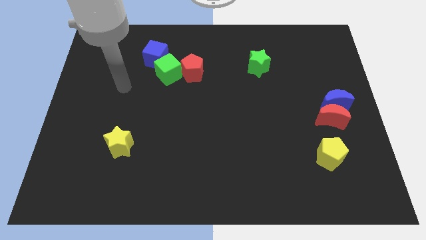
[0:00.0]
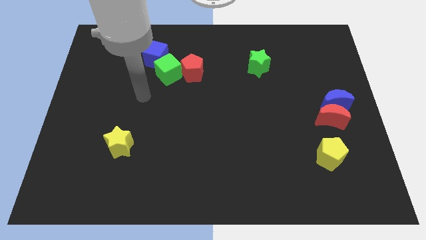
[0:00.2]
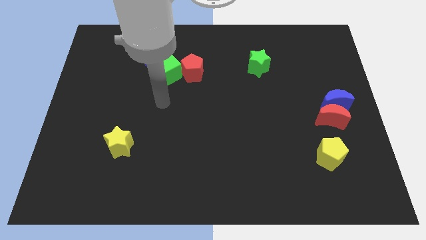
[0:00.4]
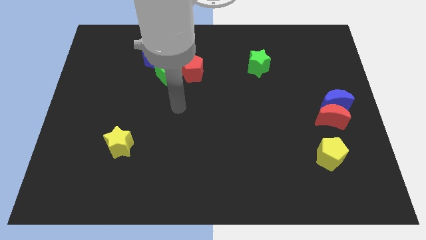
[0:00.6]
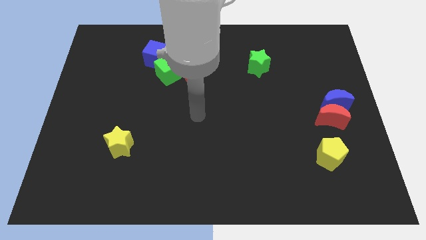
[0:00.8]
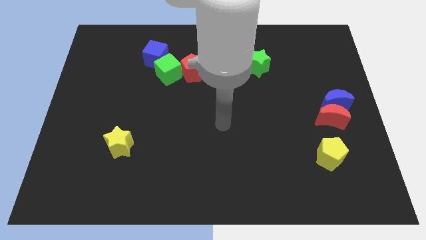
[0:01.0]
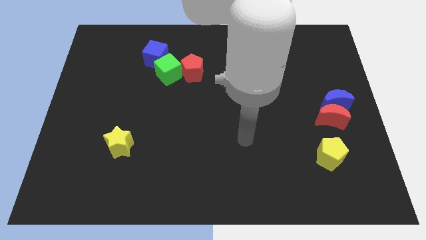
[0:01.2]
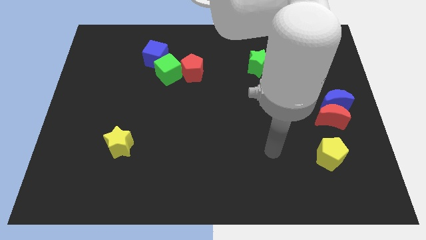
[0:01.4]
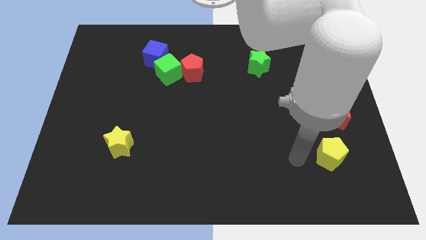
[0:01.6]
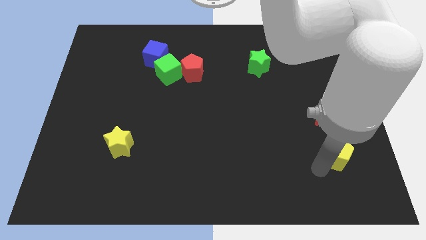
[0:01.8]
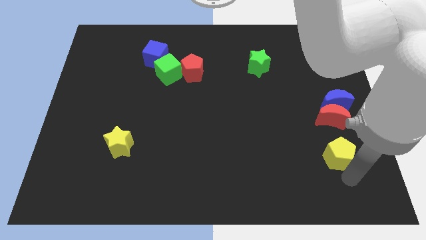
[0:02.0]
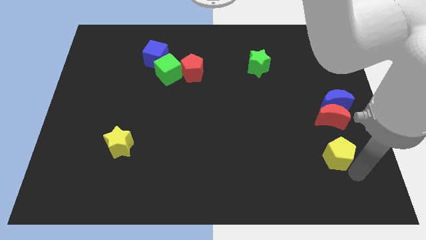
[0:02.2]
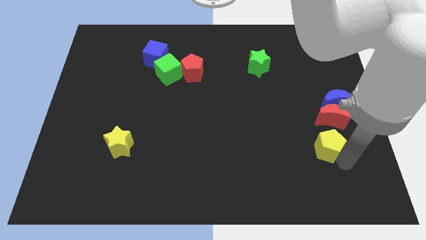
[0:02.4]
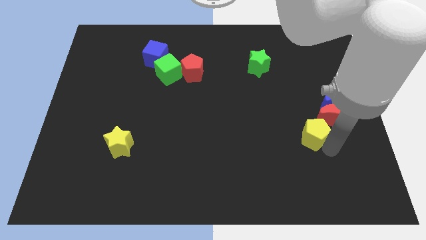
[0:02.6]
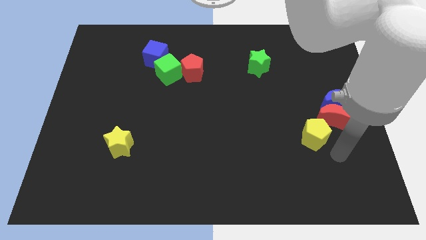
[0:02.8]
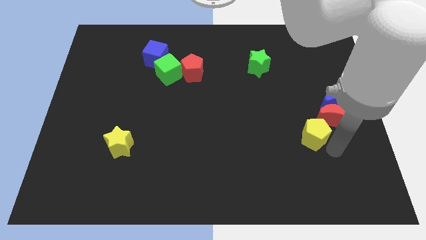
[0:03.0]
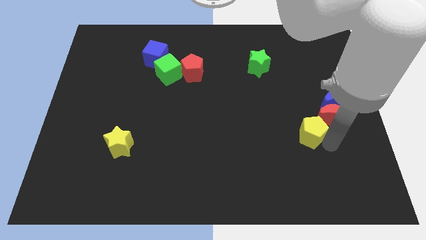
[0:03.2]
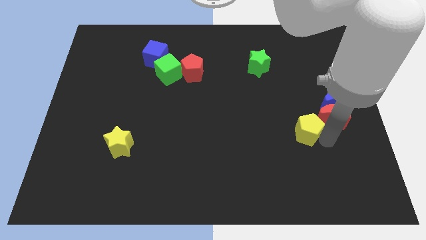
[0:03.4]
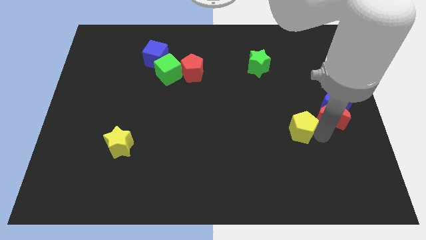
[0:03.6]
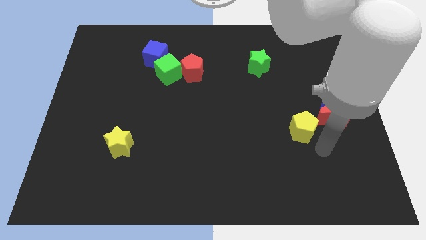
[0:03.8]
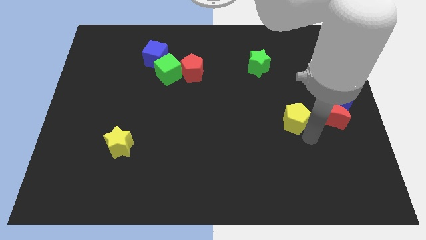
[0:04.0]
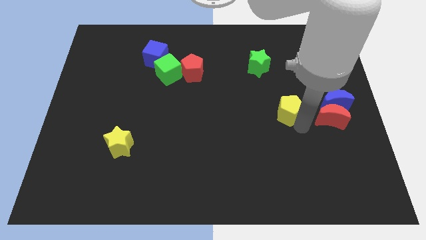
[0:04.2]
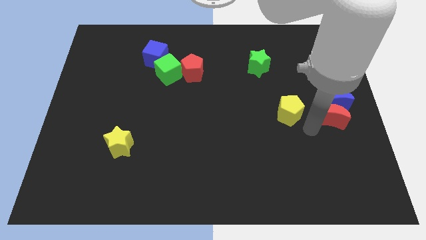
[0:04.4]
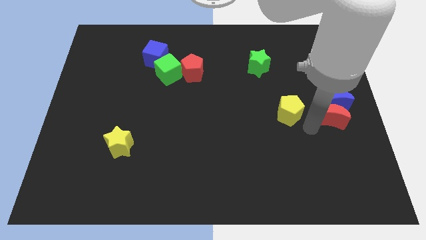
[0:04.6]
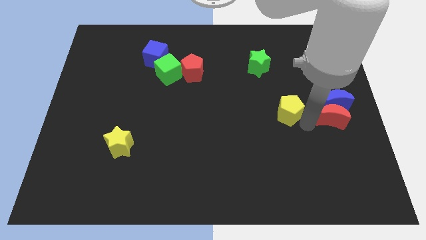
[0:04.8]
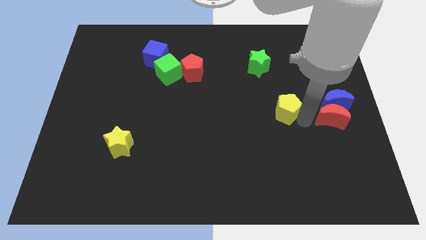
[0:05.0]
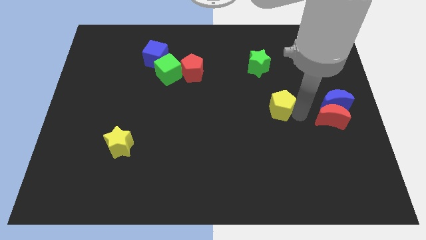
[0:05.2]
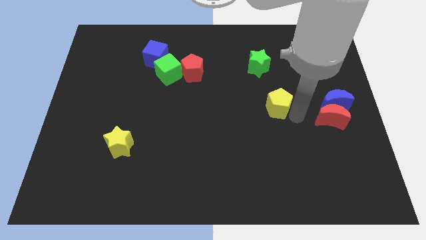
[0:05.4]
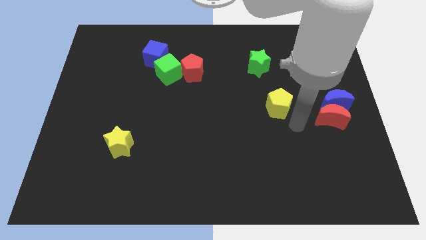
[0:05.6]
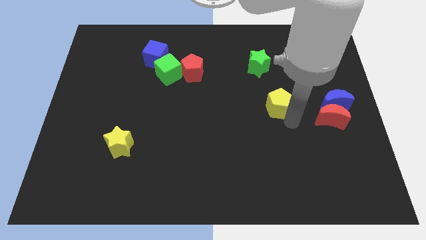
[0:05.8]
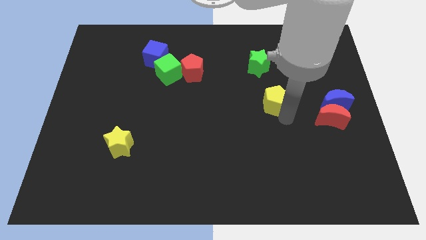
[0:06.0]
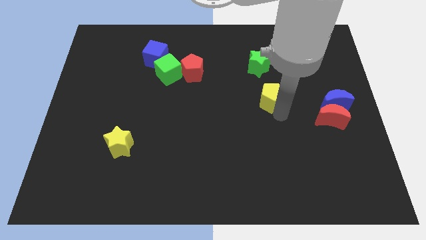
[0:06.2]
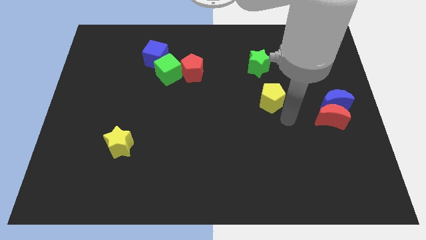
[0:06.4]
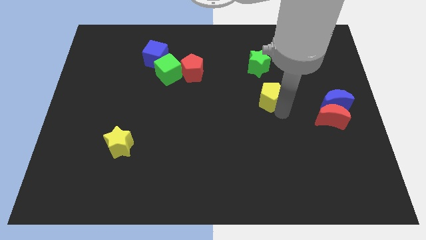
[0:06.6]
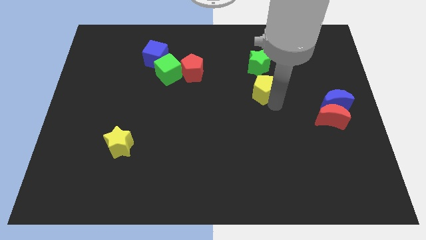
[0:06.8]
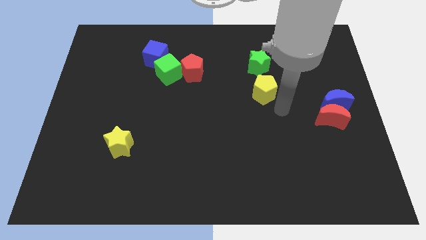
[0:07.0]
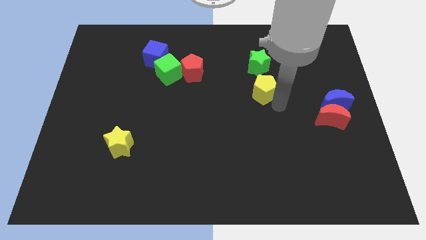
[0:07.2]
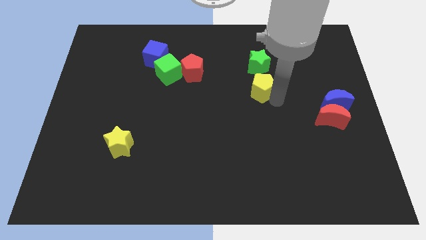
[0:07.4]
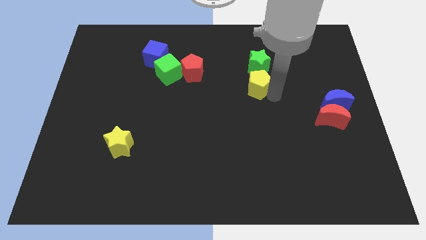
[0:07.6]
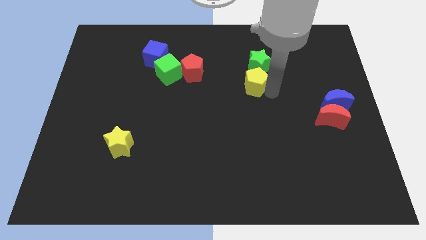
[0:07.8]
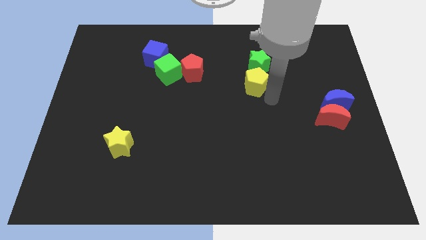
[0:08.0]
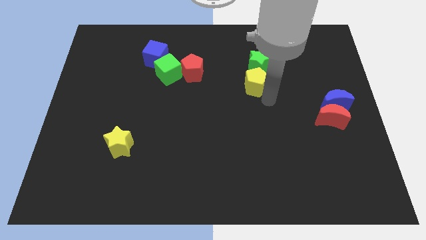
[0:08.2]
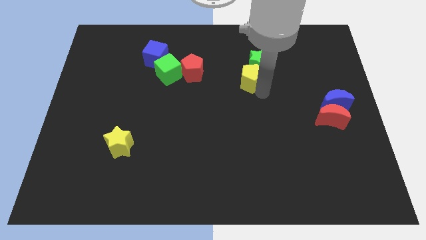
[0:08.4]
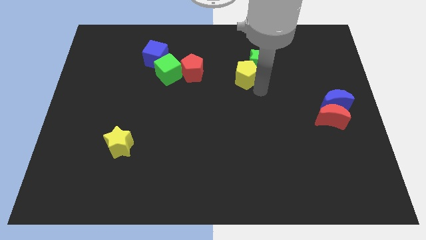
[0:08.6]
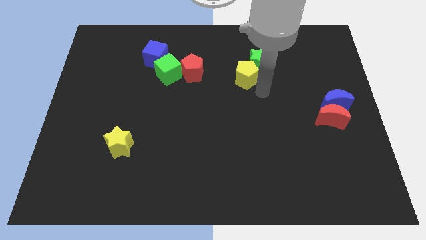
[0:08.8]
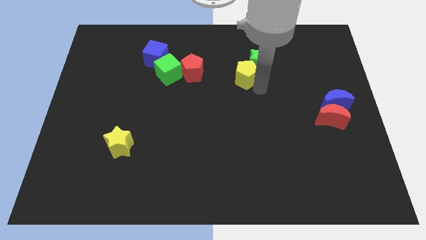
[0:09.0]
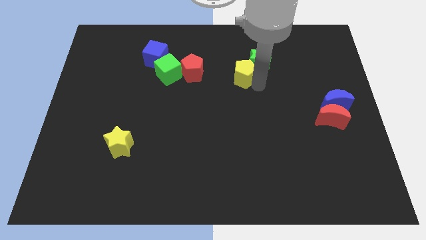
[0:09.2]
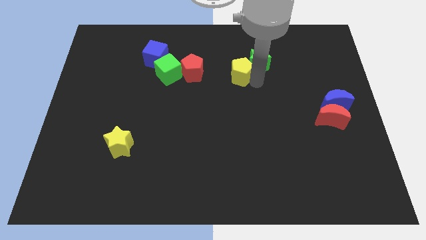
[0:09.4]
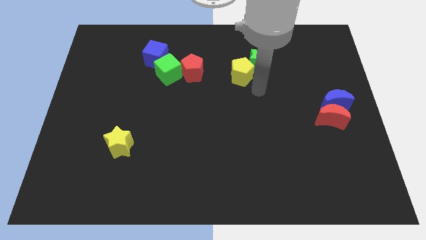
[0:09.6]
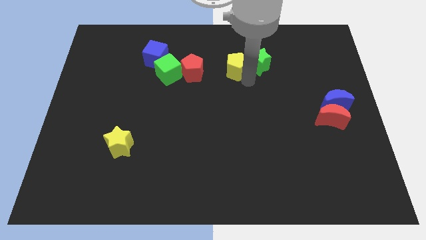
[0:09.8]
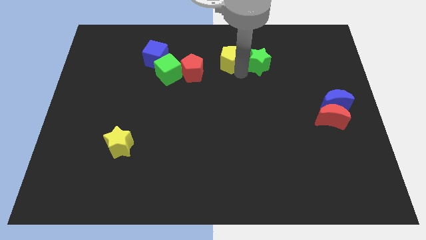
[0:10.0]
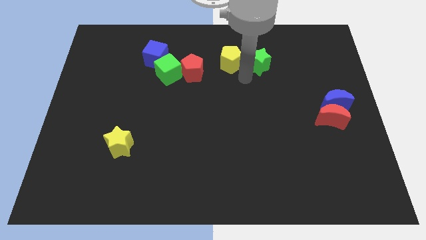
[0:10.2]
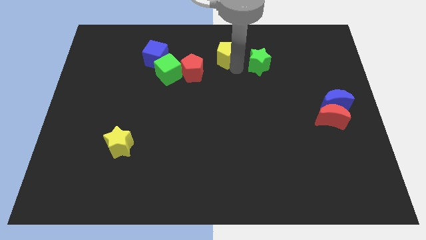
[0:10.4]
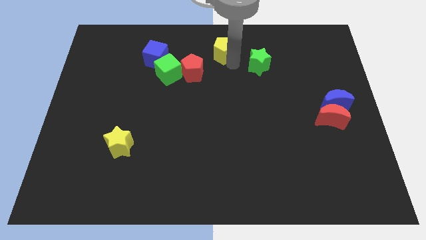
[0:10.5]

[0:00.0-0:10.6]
slide the yellow pentagon to the towards your base

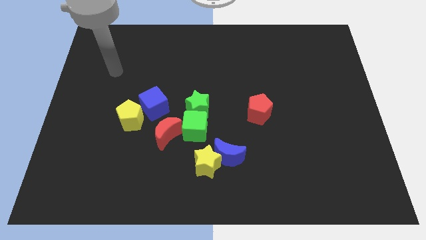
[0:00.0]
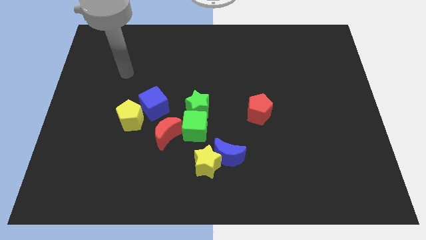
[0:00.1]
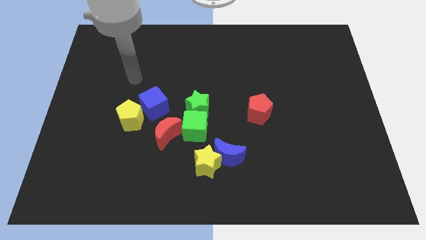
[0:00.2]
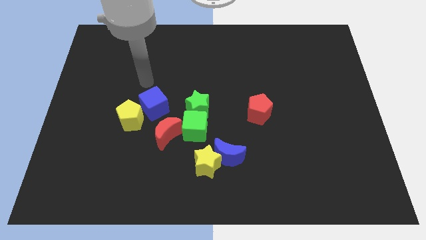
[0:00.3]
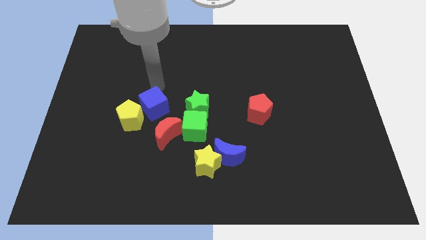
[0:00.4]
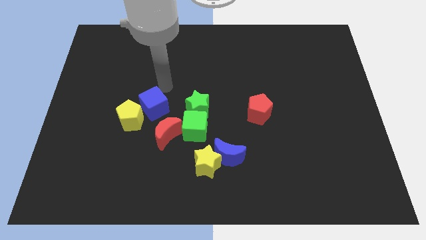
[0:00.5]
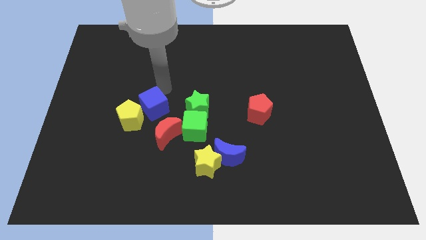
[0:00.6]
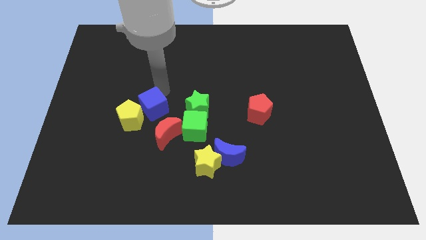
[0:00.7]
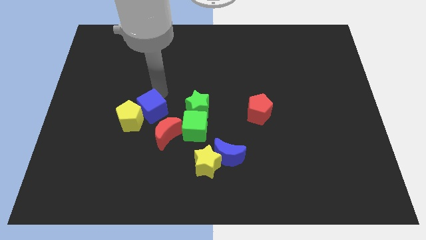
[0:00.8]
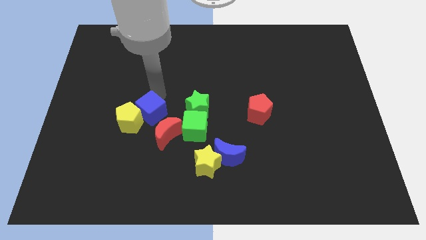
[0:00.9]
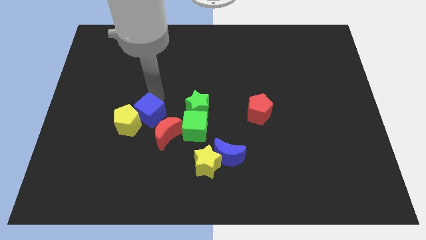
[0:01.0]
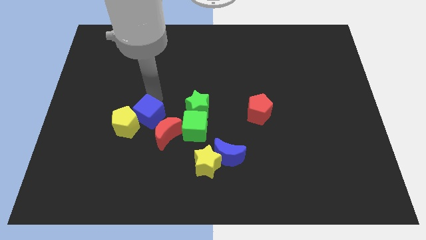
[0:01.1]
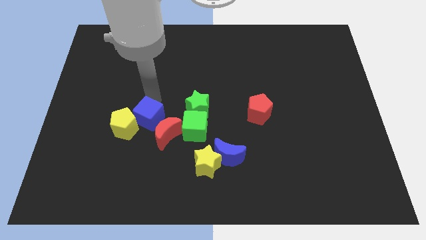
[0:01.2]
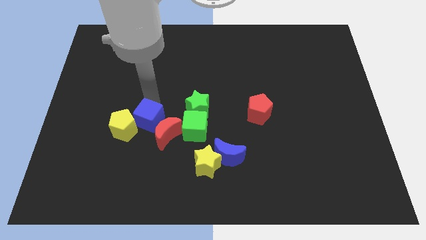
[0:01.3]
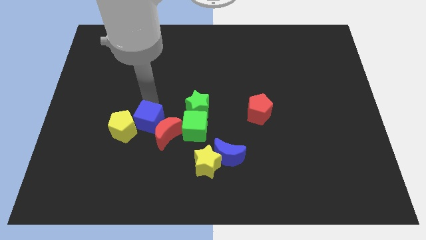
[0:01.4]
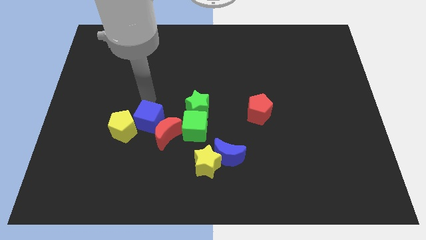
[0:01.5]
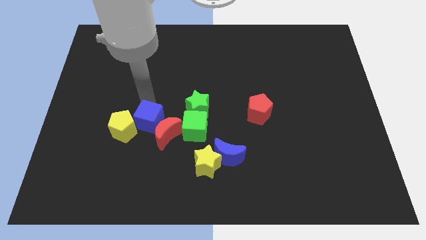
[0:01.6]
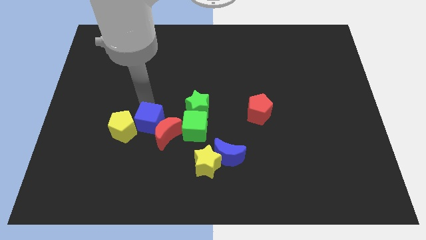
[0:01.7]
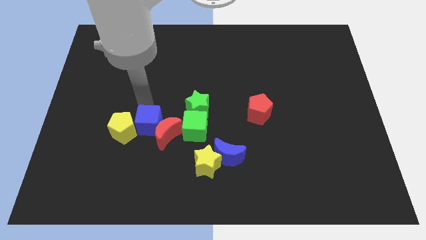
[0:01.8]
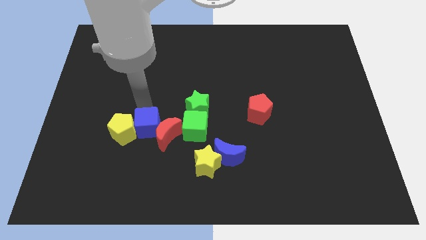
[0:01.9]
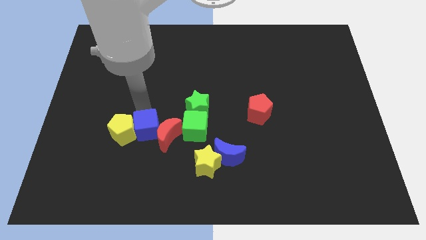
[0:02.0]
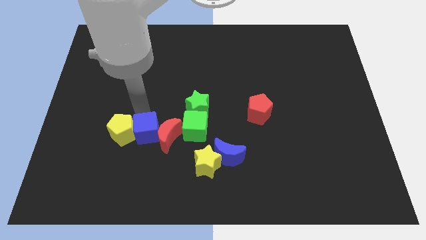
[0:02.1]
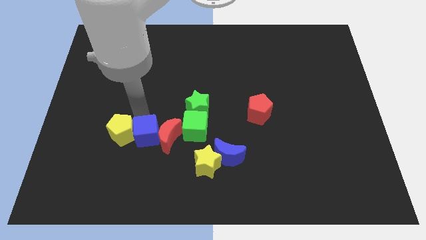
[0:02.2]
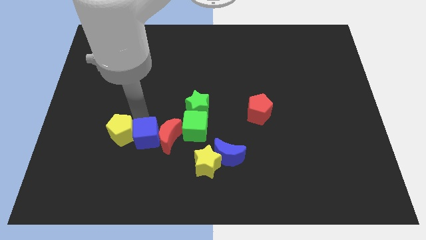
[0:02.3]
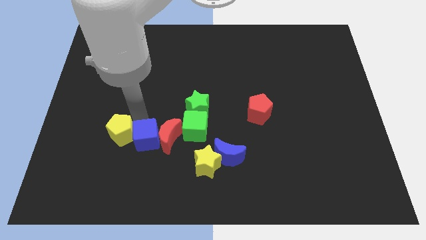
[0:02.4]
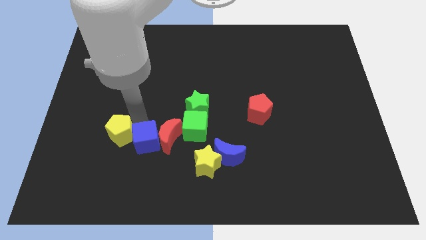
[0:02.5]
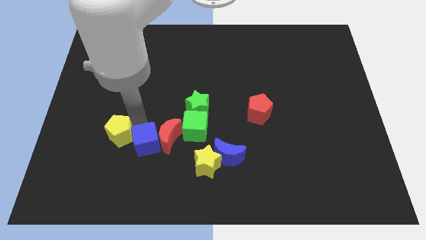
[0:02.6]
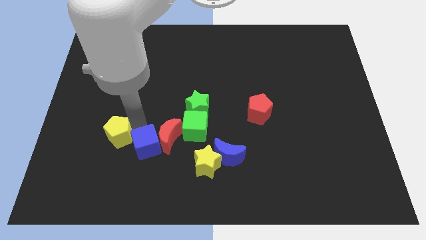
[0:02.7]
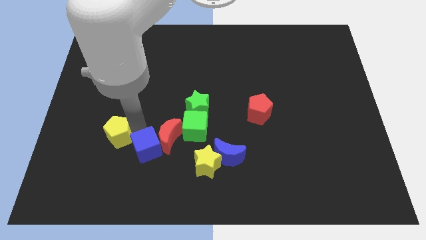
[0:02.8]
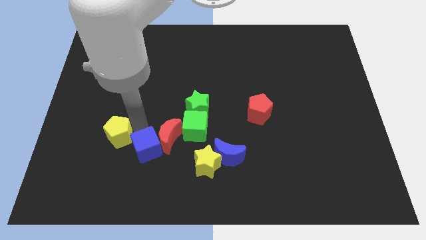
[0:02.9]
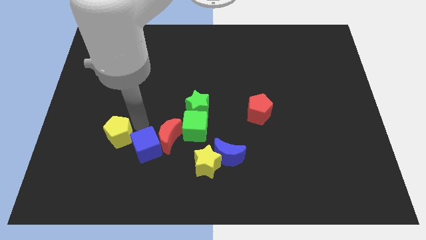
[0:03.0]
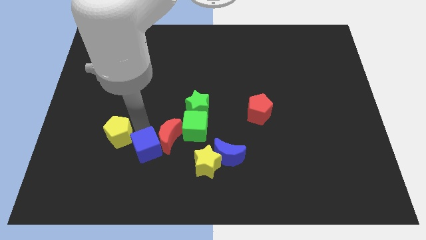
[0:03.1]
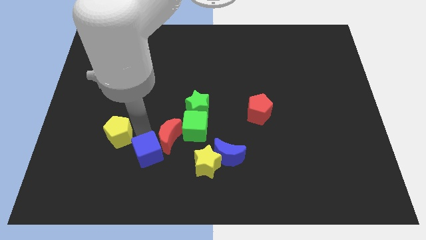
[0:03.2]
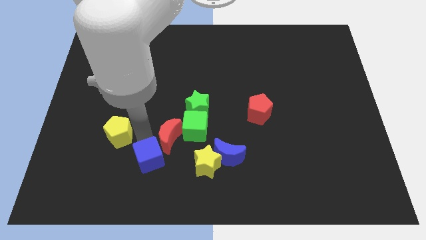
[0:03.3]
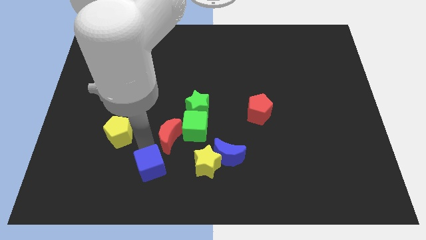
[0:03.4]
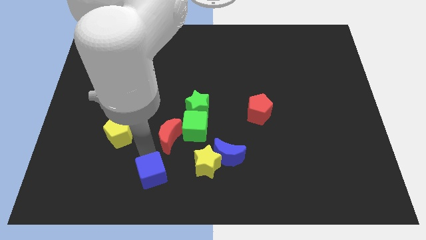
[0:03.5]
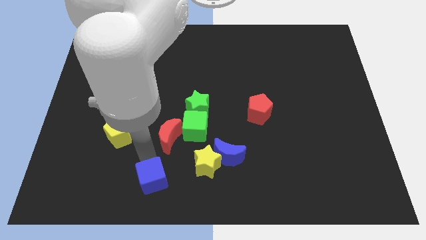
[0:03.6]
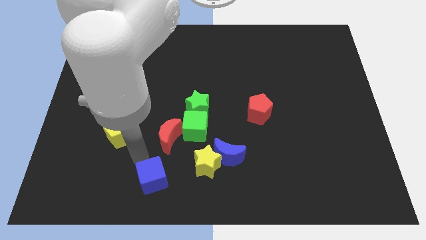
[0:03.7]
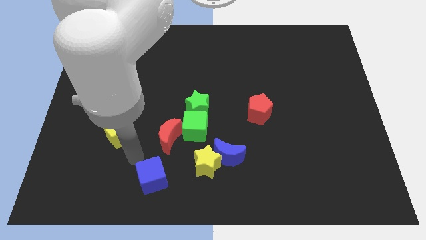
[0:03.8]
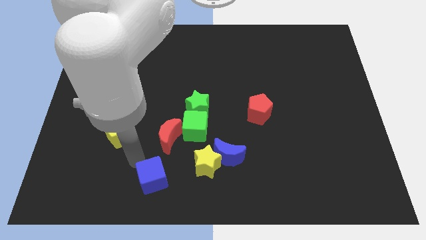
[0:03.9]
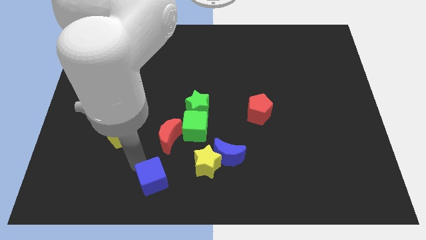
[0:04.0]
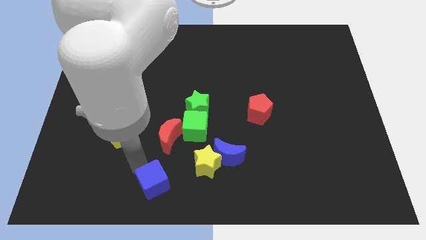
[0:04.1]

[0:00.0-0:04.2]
move the blue cube to the bottom
